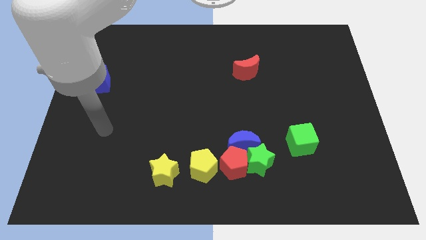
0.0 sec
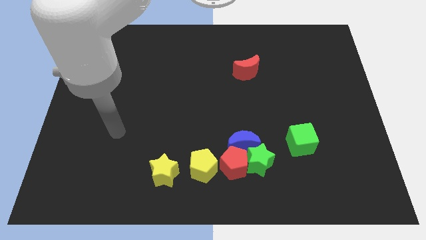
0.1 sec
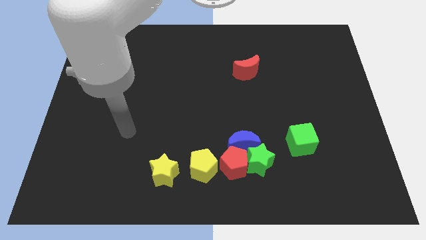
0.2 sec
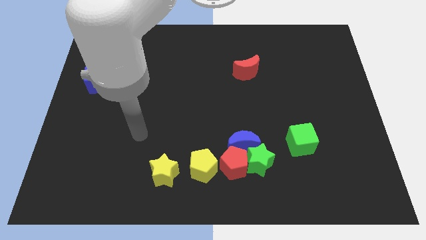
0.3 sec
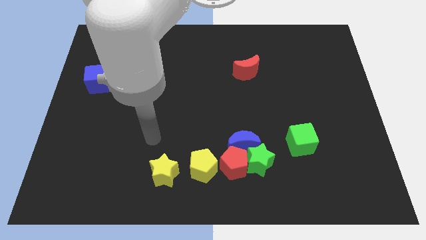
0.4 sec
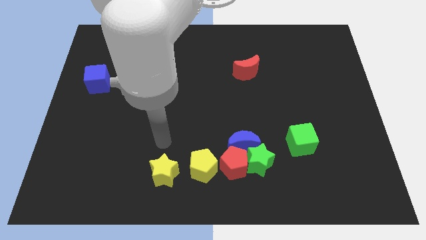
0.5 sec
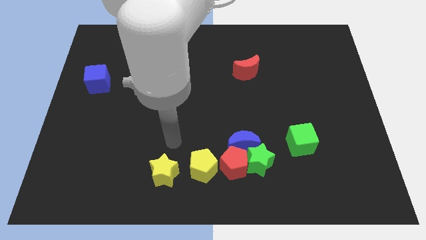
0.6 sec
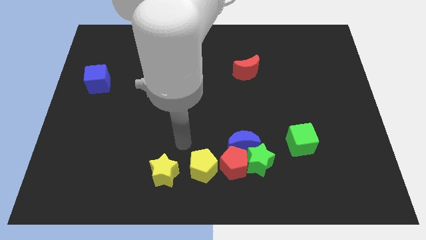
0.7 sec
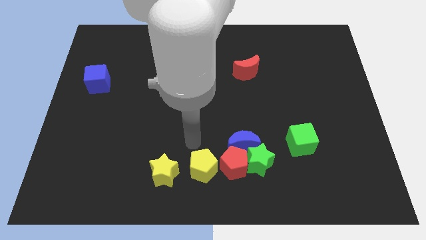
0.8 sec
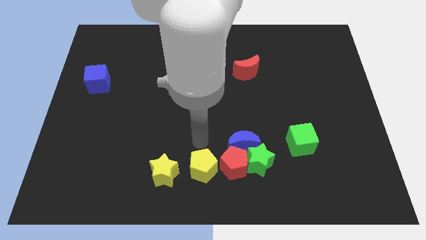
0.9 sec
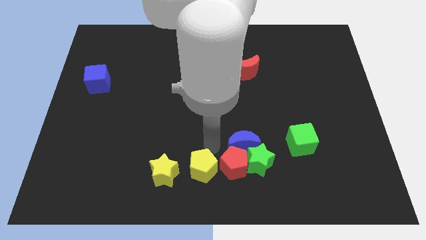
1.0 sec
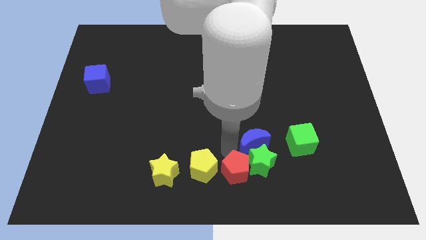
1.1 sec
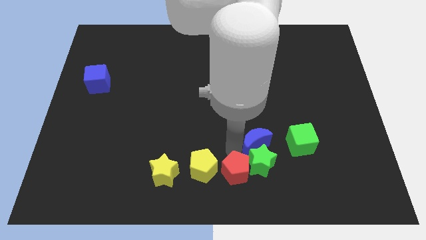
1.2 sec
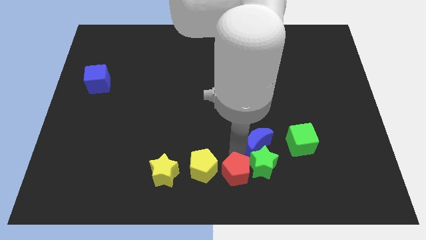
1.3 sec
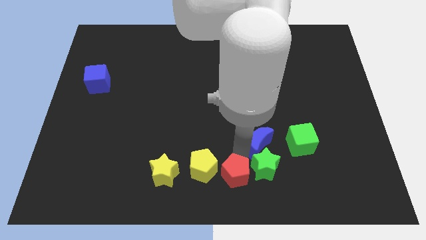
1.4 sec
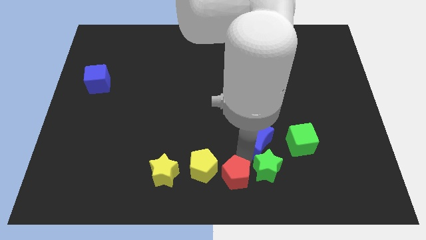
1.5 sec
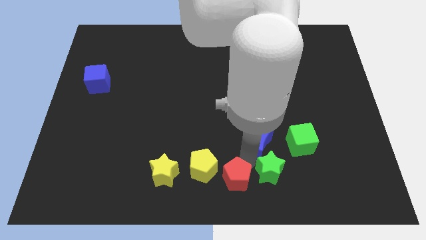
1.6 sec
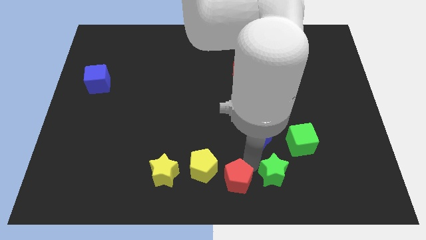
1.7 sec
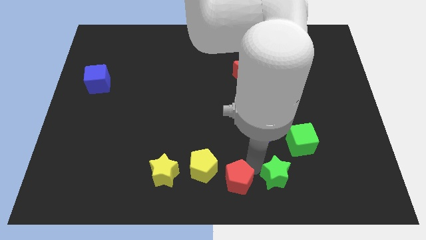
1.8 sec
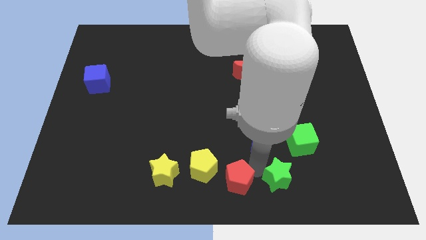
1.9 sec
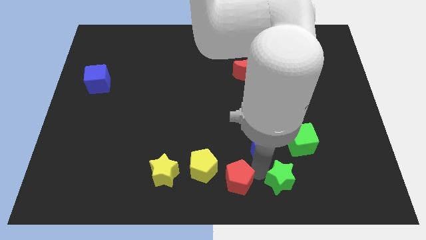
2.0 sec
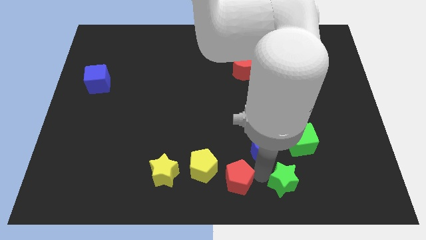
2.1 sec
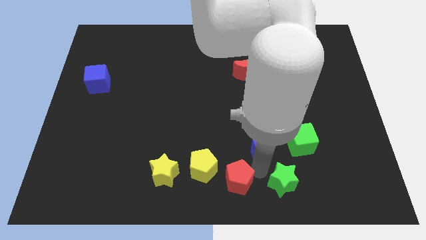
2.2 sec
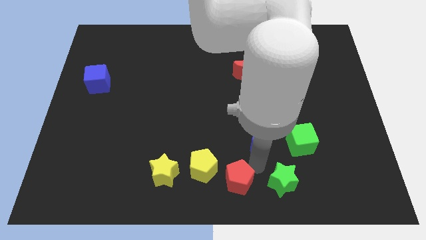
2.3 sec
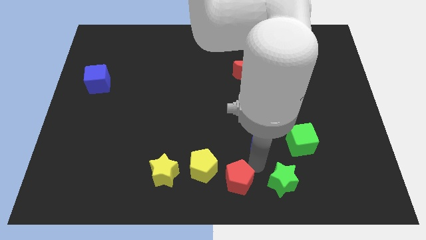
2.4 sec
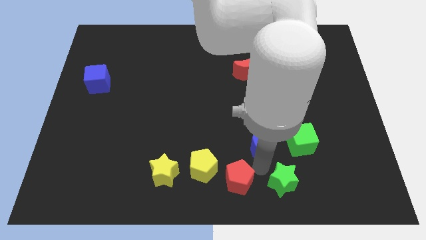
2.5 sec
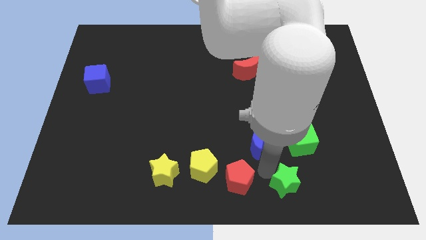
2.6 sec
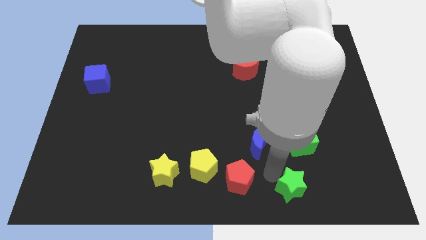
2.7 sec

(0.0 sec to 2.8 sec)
move the green star away from the red pentagon and blue moon

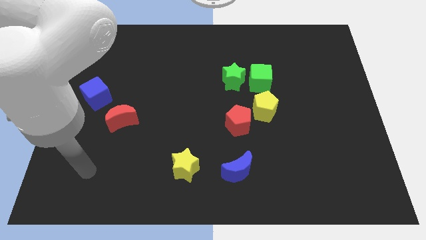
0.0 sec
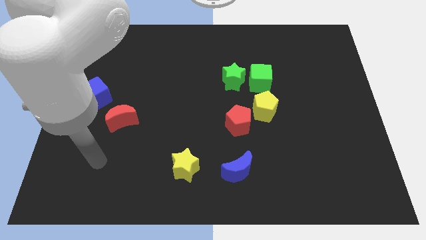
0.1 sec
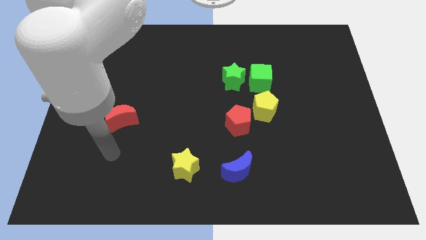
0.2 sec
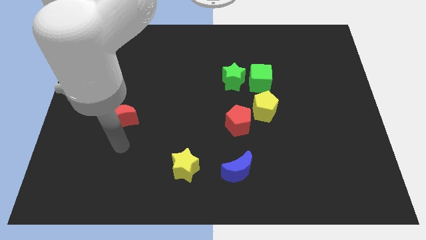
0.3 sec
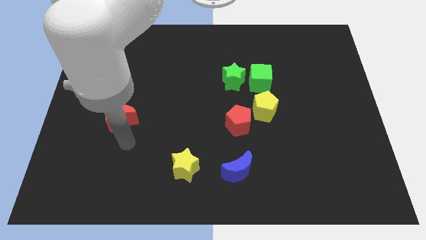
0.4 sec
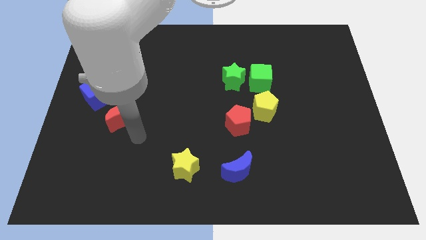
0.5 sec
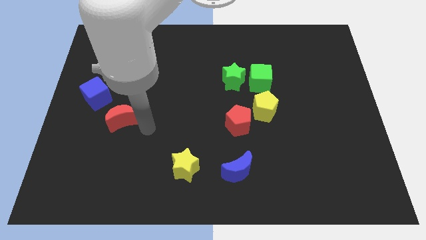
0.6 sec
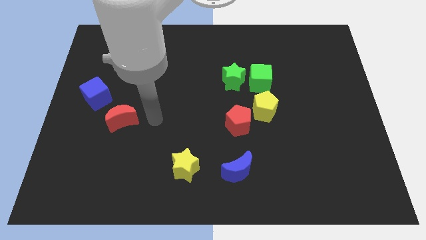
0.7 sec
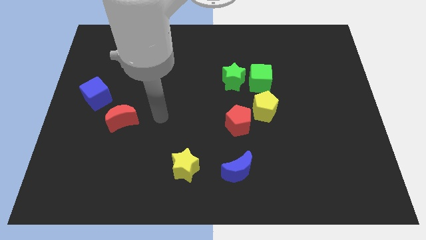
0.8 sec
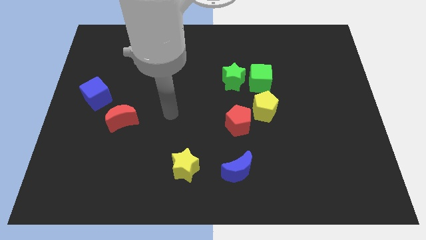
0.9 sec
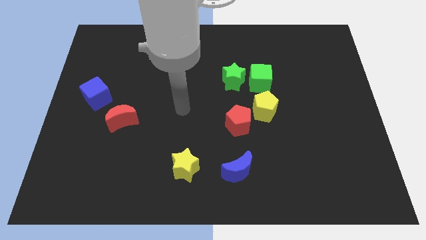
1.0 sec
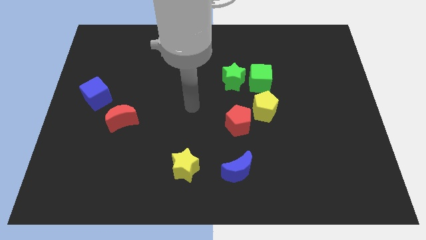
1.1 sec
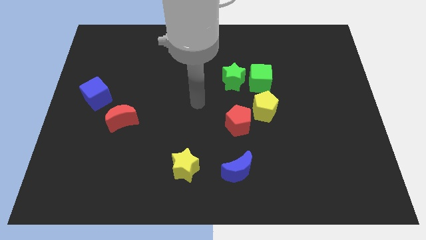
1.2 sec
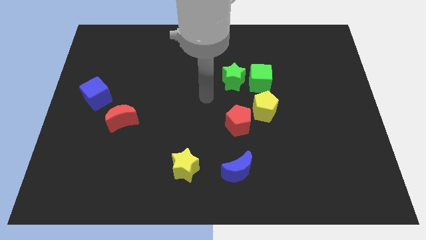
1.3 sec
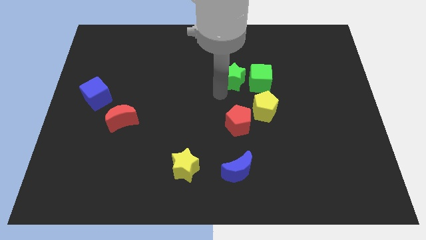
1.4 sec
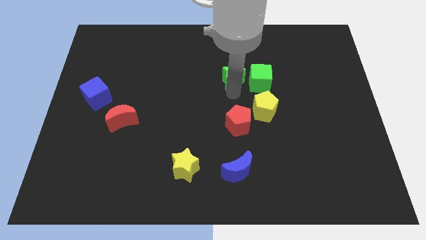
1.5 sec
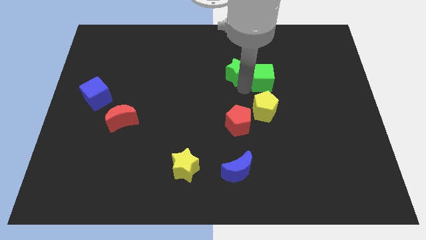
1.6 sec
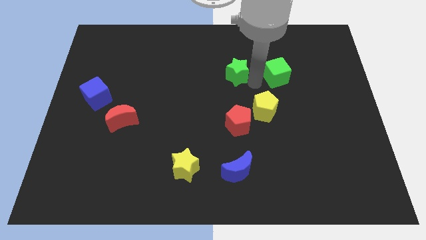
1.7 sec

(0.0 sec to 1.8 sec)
separate the green star from the green cube

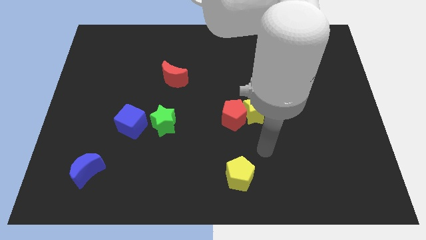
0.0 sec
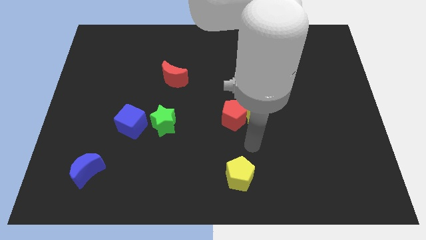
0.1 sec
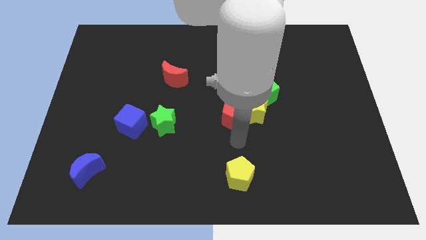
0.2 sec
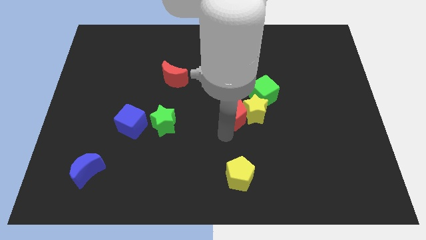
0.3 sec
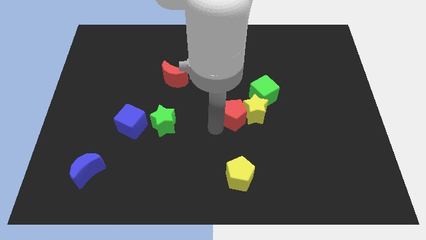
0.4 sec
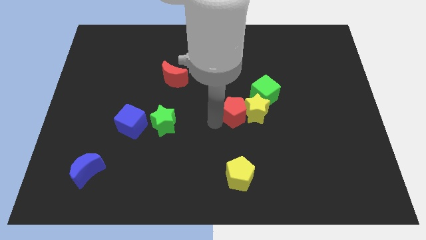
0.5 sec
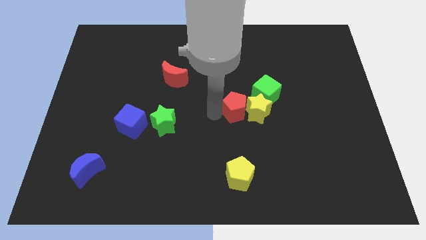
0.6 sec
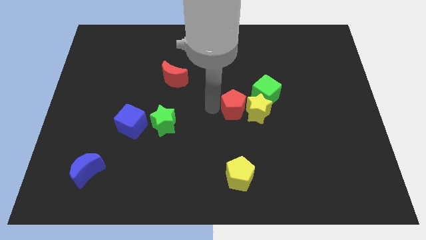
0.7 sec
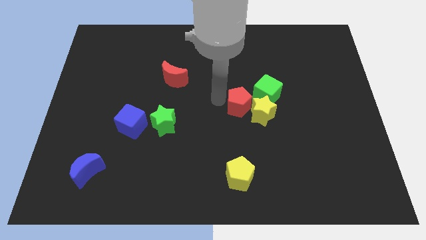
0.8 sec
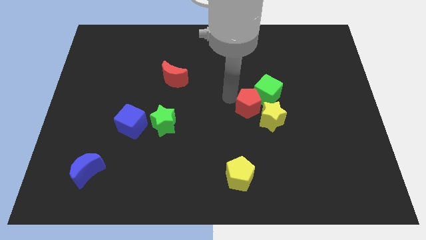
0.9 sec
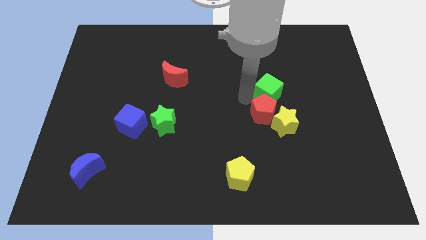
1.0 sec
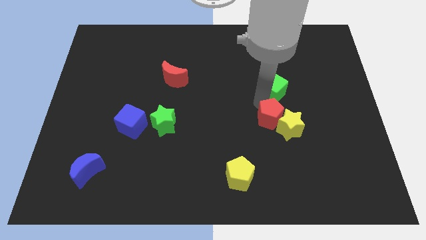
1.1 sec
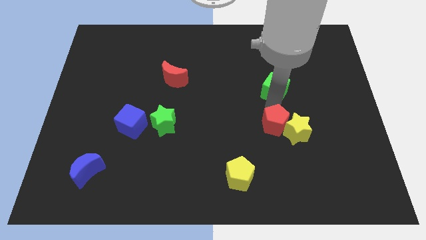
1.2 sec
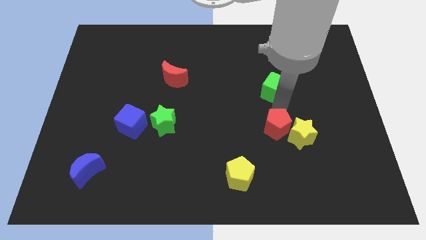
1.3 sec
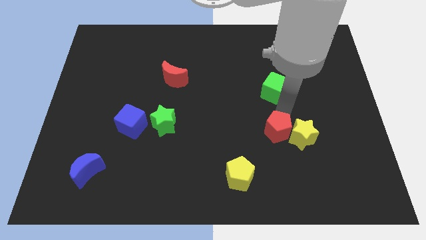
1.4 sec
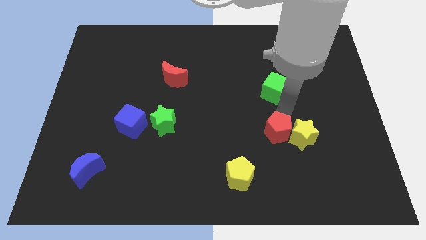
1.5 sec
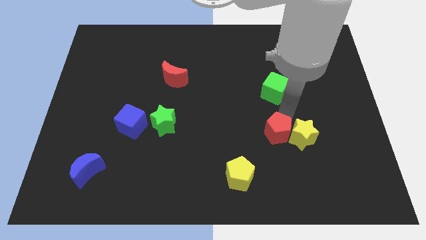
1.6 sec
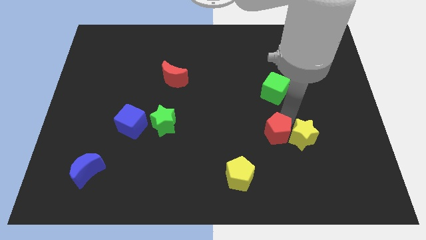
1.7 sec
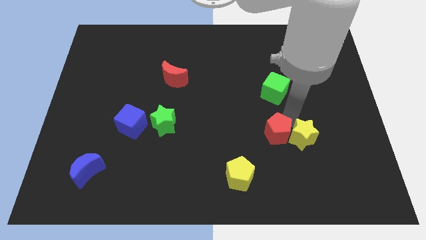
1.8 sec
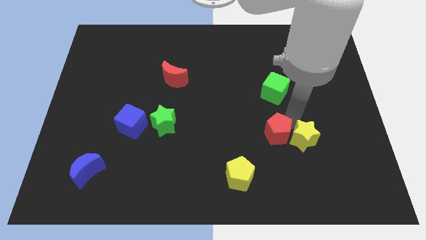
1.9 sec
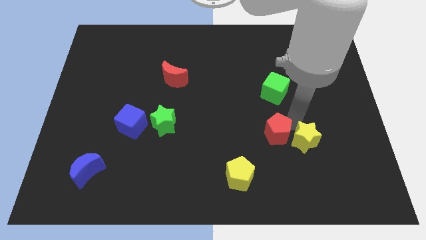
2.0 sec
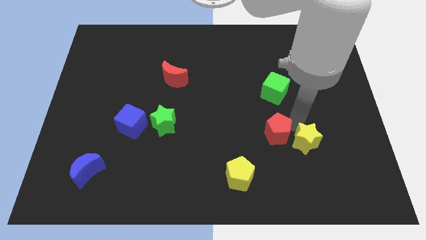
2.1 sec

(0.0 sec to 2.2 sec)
move the yellow star away from the red pentagon and green cube

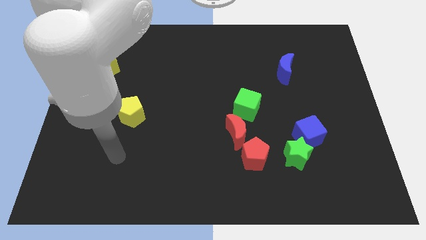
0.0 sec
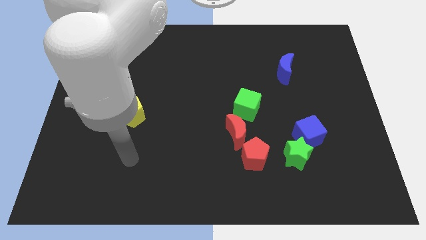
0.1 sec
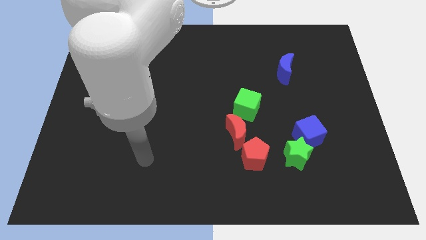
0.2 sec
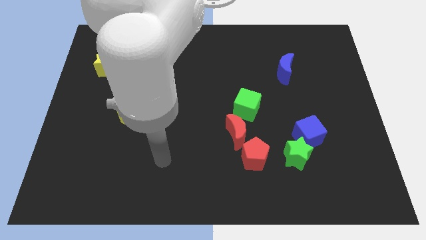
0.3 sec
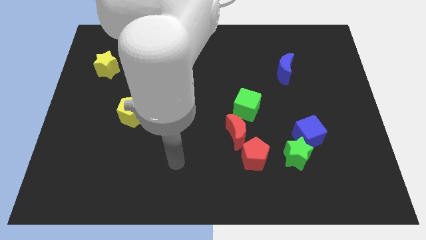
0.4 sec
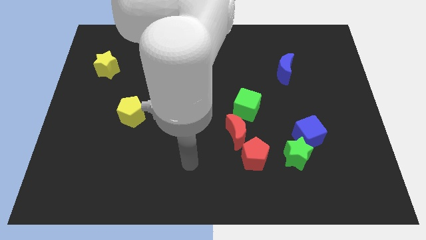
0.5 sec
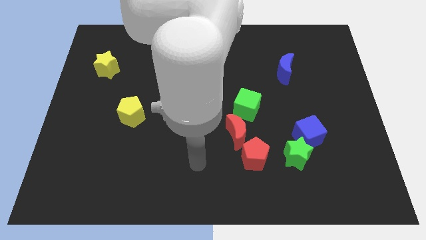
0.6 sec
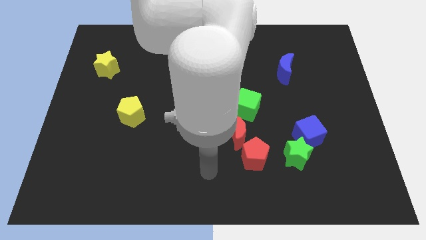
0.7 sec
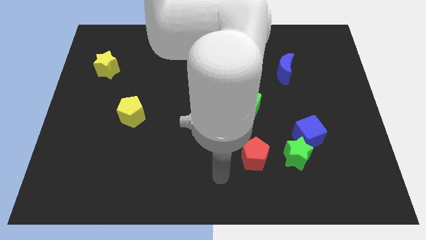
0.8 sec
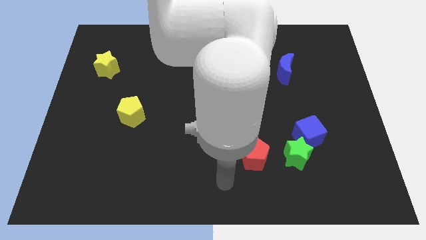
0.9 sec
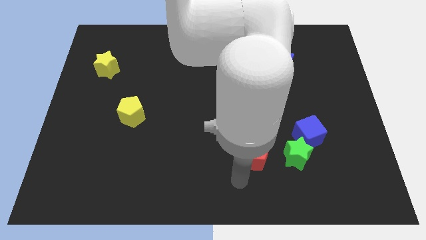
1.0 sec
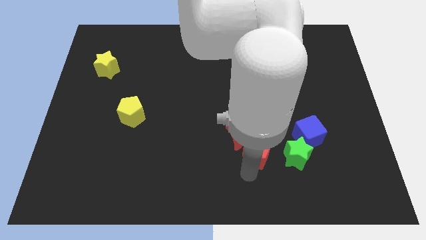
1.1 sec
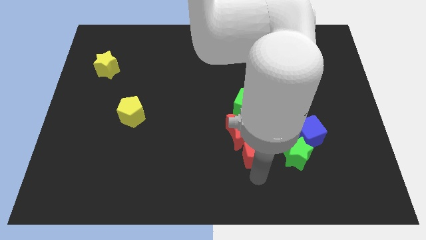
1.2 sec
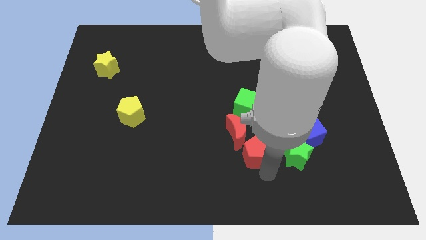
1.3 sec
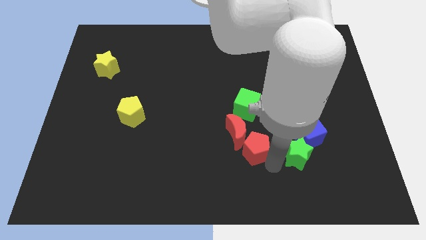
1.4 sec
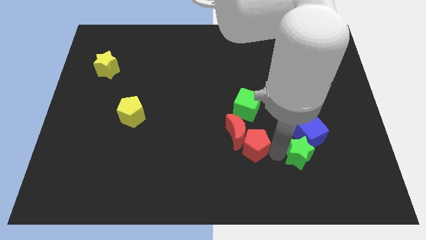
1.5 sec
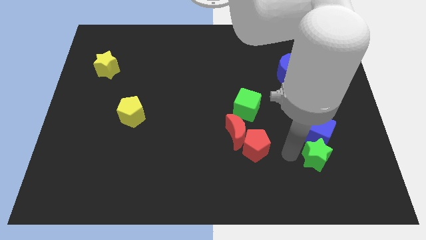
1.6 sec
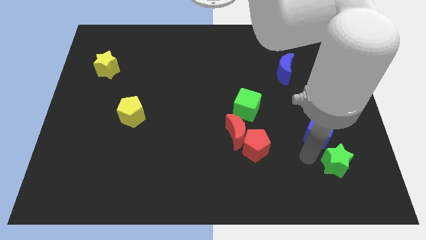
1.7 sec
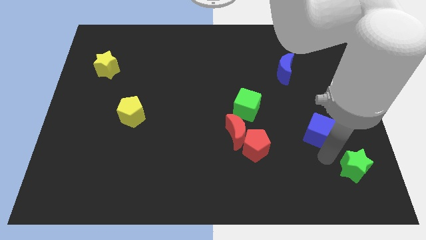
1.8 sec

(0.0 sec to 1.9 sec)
move the blue cube away from the green star

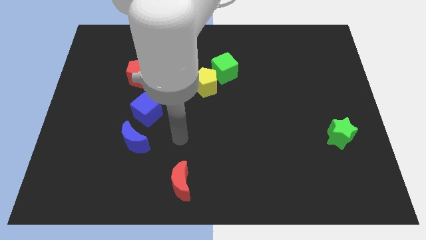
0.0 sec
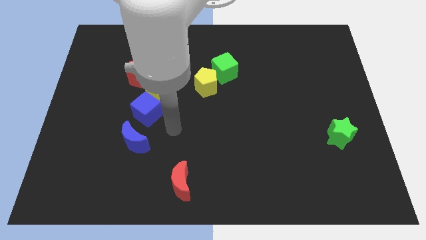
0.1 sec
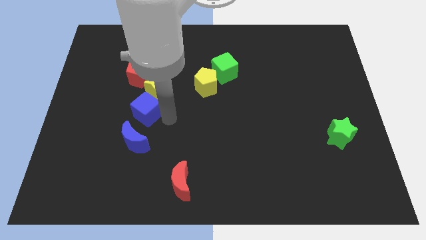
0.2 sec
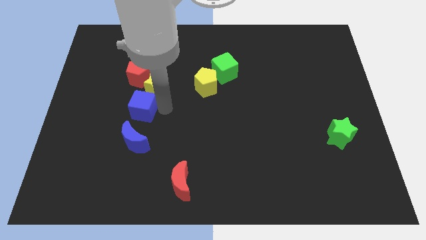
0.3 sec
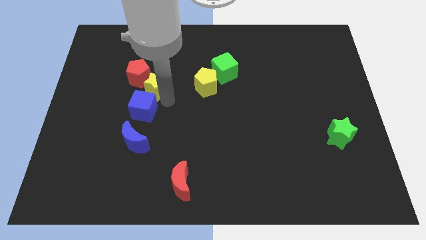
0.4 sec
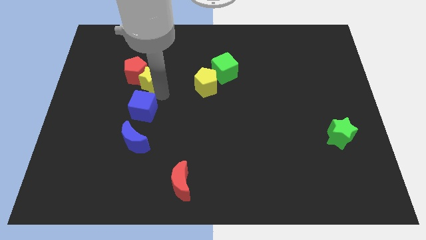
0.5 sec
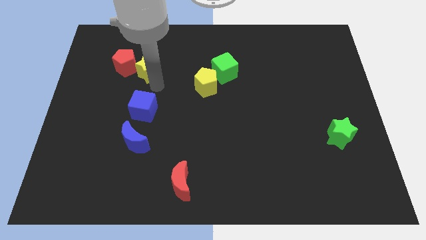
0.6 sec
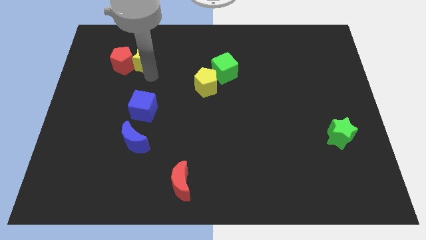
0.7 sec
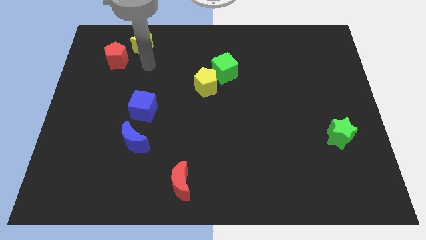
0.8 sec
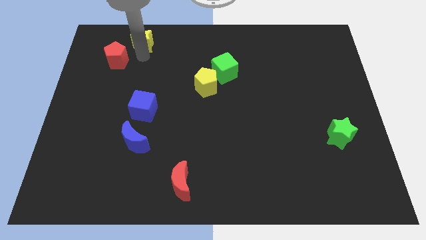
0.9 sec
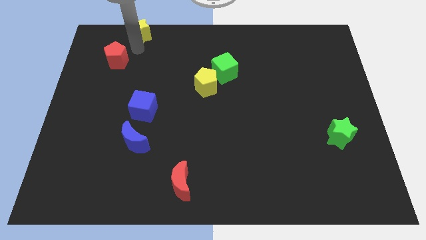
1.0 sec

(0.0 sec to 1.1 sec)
pull the red pentagon apart from the yellow star
